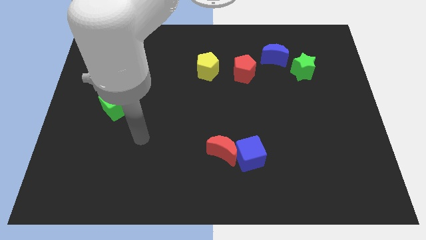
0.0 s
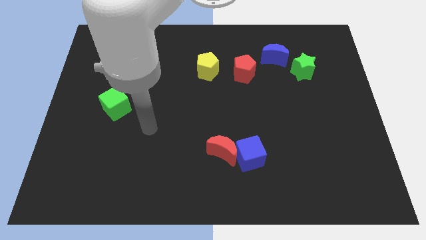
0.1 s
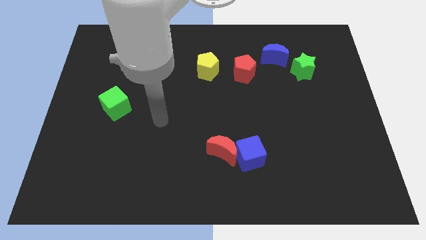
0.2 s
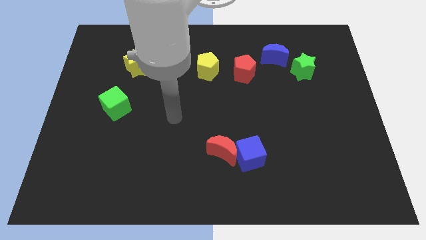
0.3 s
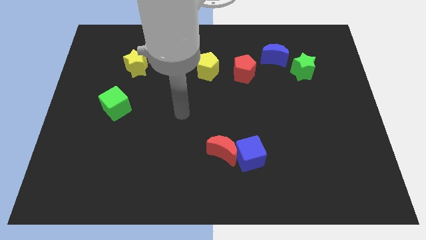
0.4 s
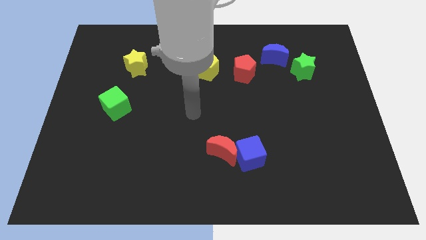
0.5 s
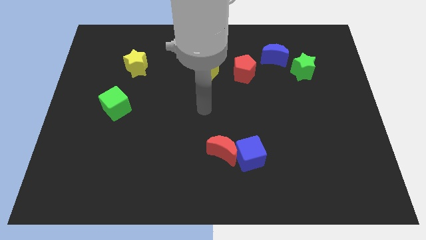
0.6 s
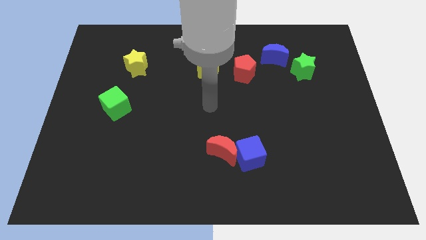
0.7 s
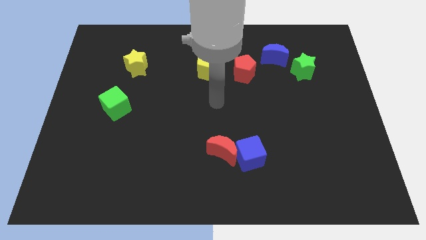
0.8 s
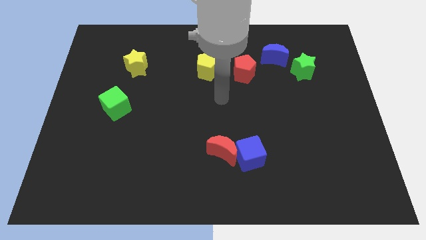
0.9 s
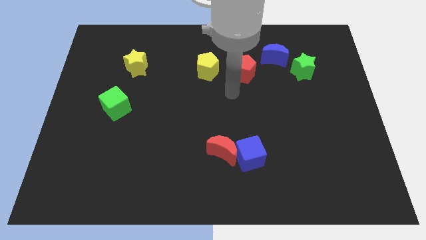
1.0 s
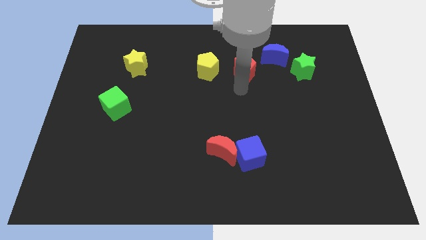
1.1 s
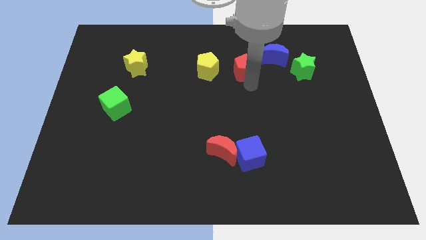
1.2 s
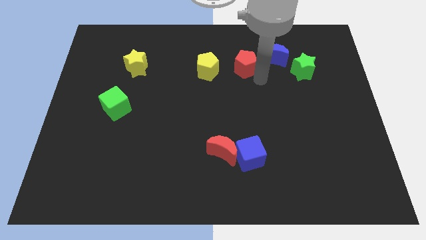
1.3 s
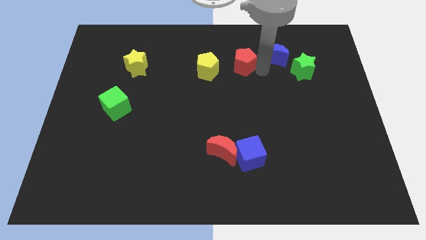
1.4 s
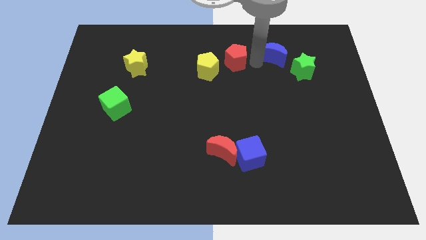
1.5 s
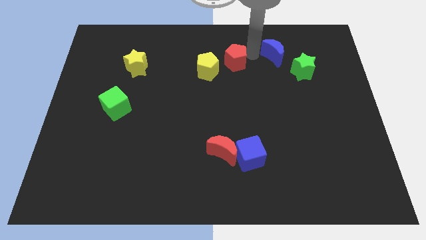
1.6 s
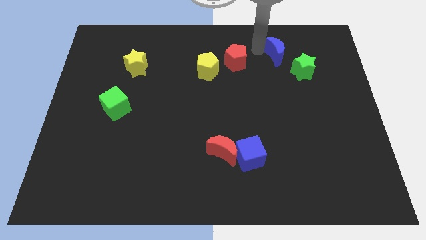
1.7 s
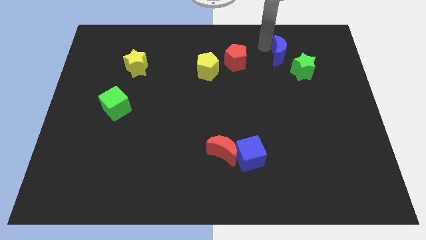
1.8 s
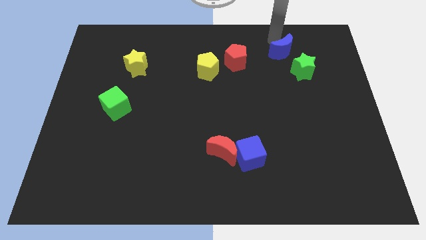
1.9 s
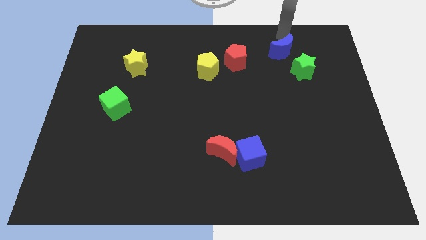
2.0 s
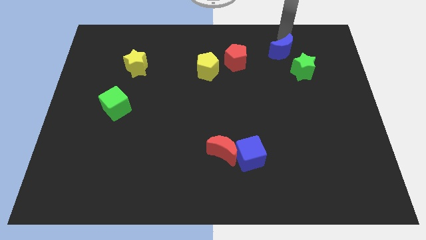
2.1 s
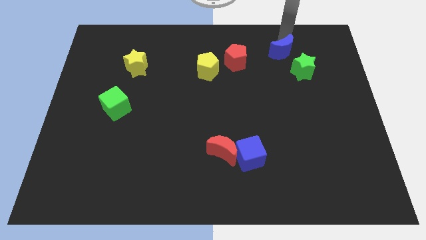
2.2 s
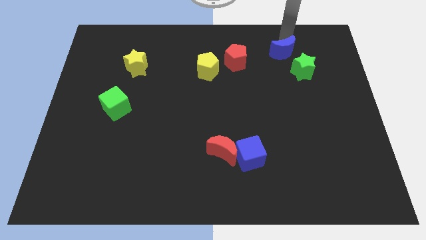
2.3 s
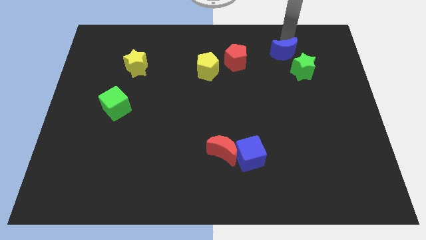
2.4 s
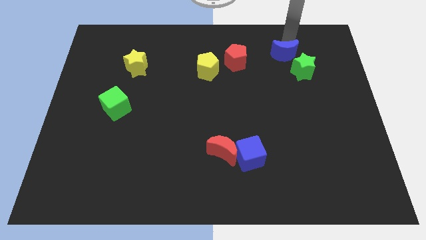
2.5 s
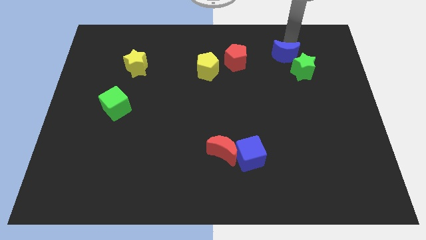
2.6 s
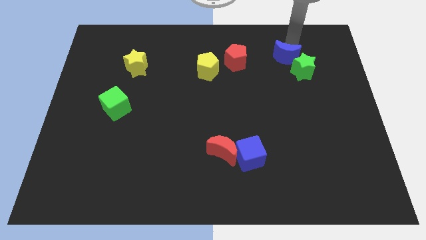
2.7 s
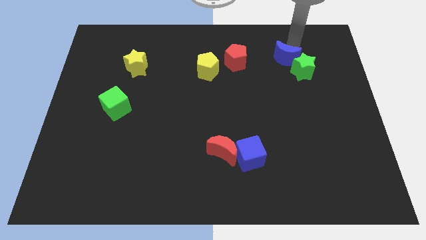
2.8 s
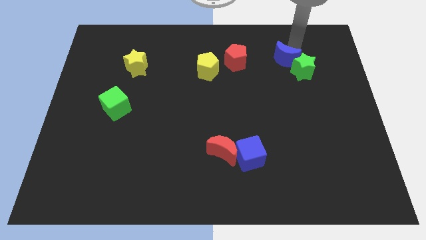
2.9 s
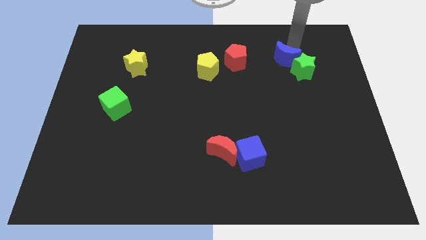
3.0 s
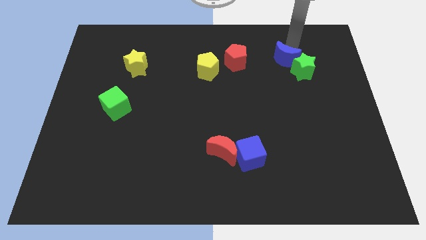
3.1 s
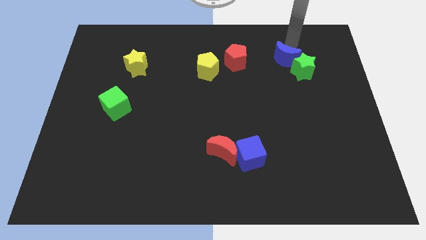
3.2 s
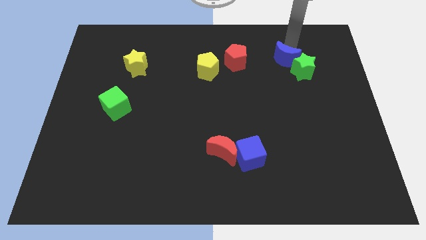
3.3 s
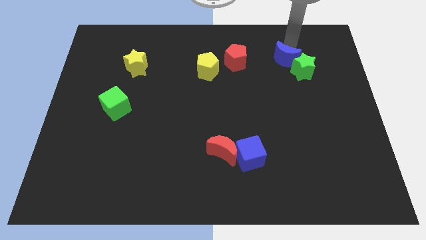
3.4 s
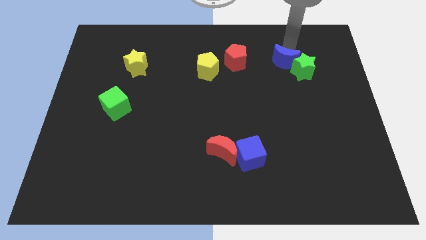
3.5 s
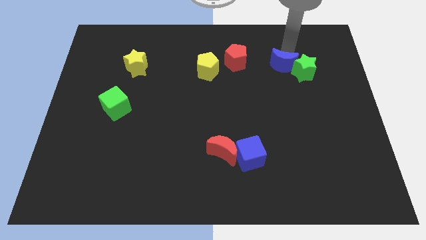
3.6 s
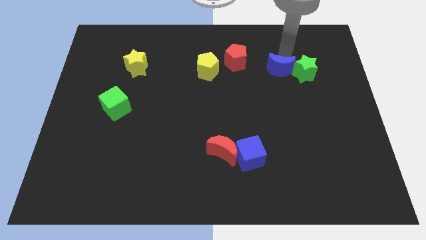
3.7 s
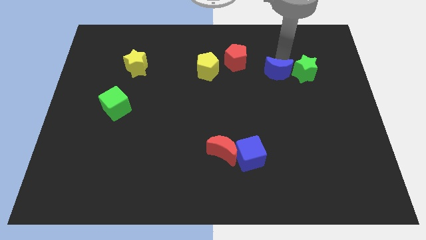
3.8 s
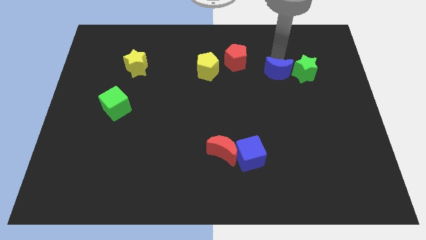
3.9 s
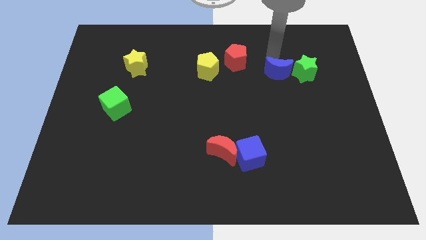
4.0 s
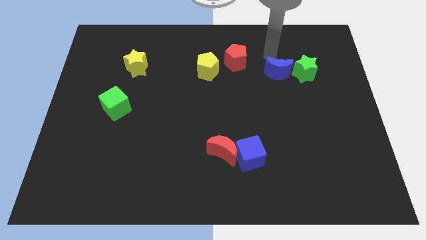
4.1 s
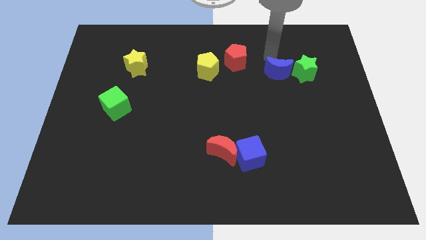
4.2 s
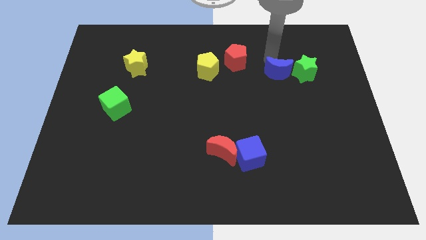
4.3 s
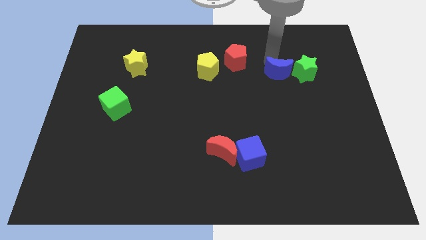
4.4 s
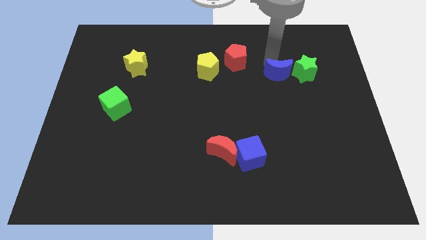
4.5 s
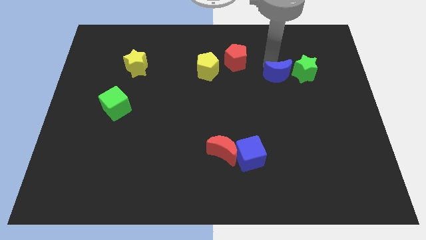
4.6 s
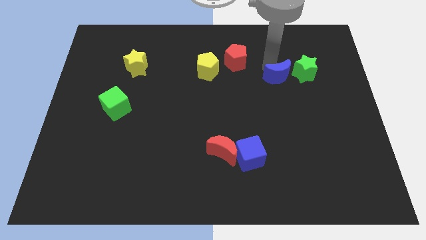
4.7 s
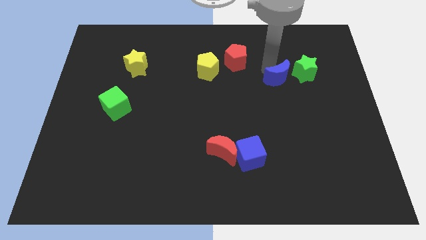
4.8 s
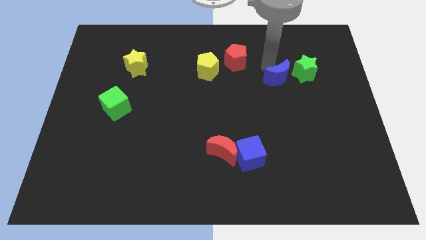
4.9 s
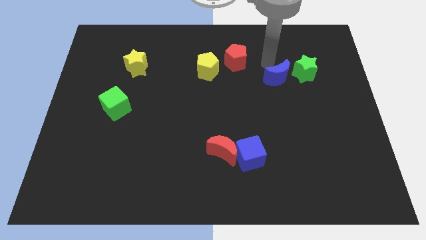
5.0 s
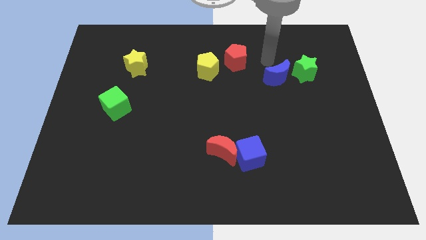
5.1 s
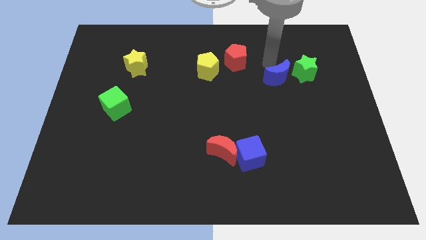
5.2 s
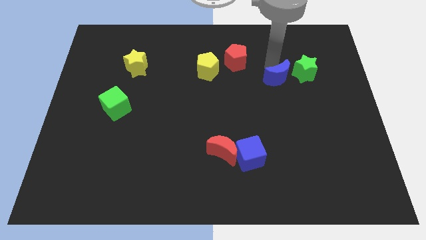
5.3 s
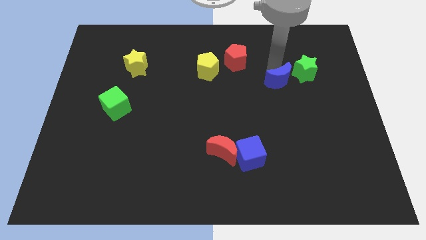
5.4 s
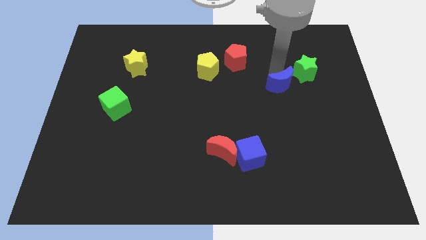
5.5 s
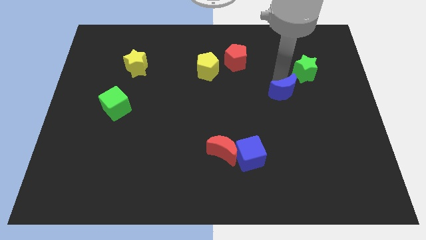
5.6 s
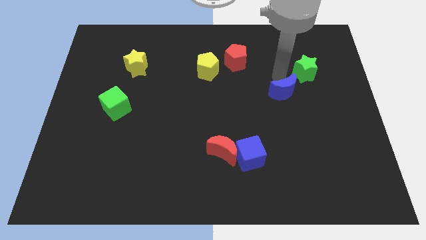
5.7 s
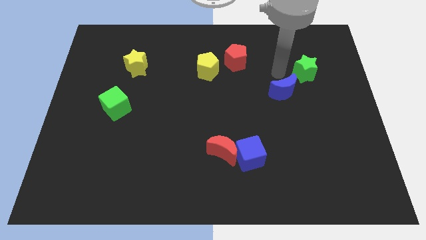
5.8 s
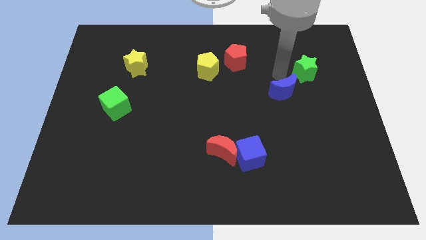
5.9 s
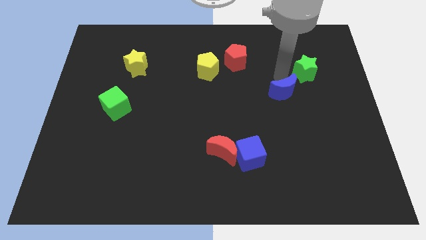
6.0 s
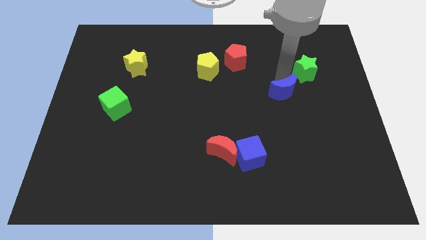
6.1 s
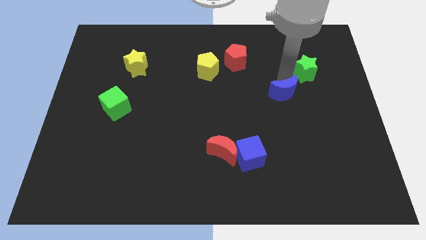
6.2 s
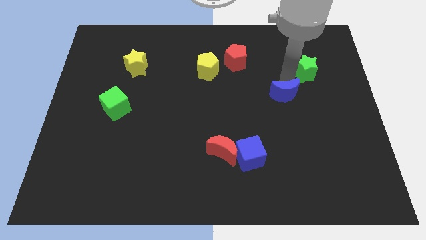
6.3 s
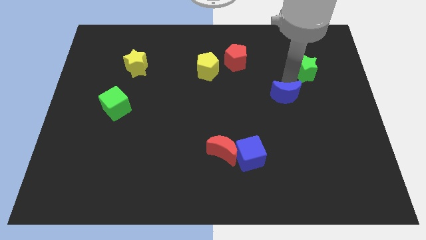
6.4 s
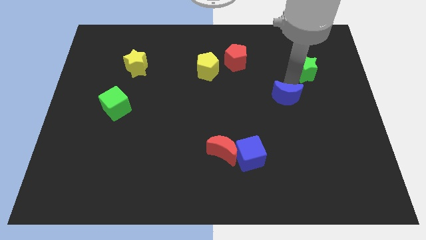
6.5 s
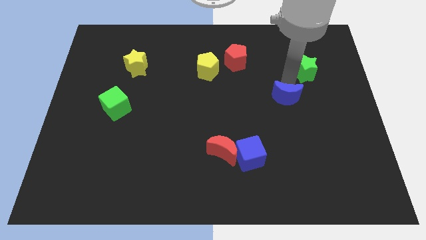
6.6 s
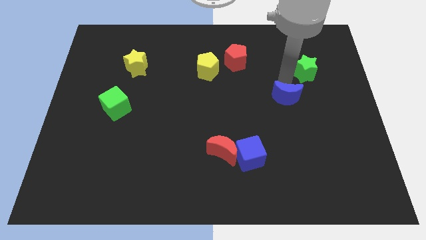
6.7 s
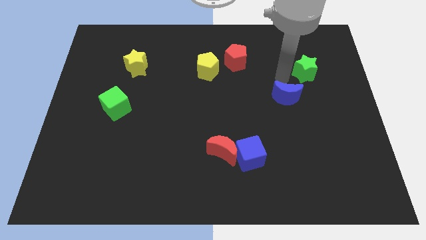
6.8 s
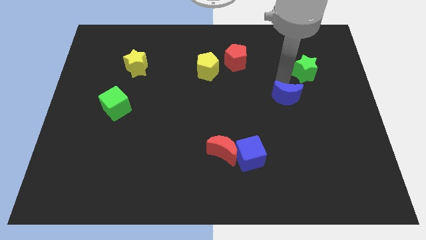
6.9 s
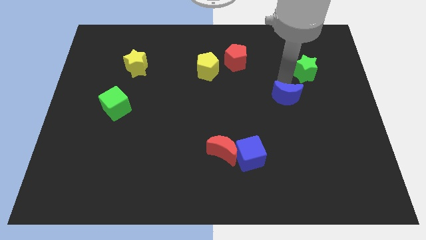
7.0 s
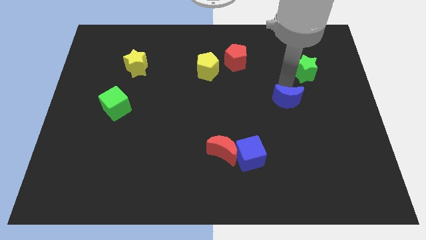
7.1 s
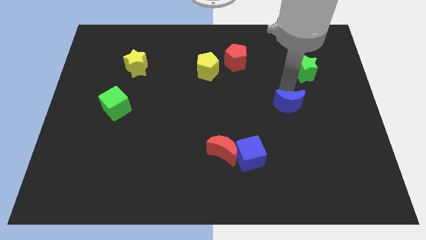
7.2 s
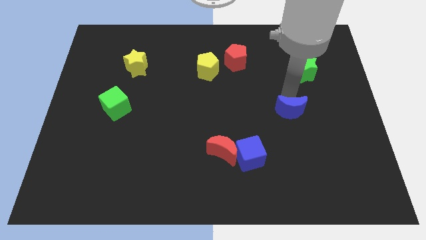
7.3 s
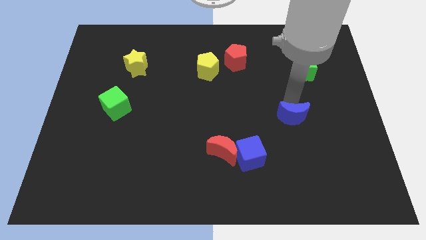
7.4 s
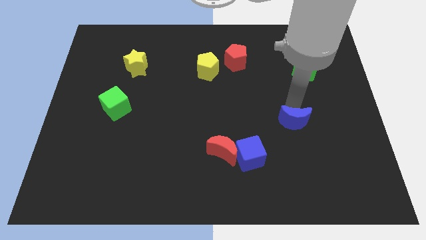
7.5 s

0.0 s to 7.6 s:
slide the blue moon down

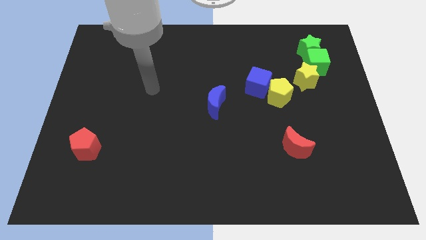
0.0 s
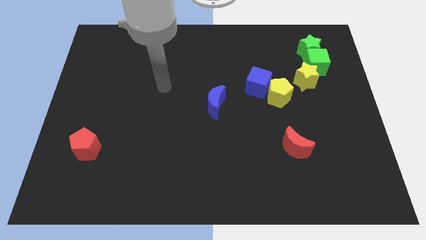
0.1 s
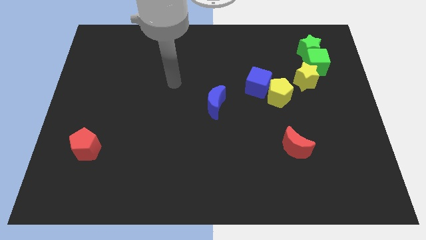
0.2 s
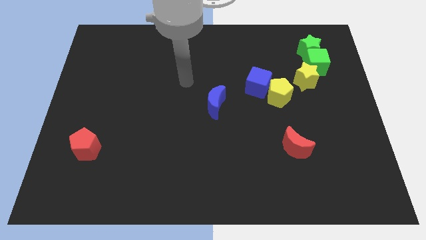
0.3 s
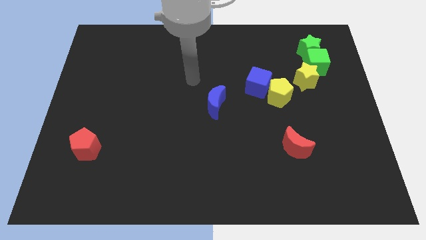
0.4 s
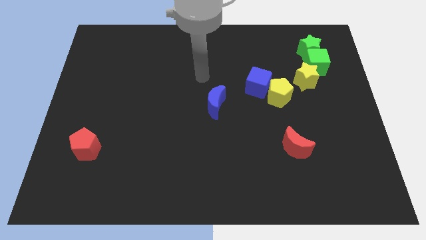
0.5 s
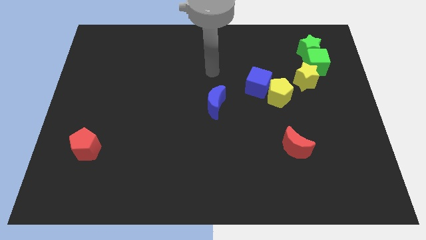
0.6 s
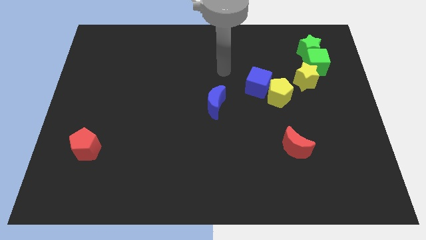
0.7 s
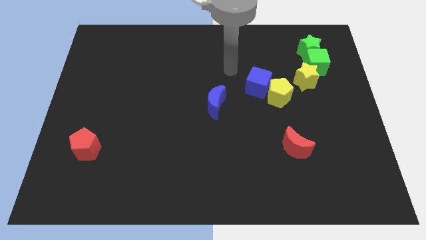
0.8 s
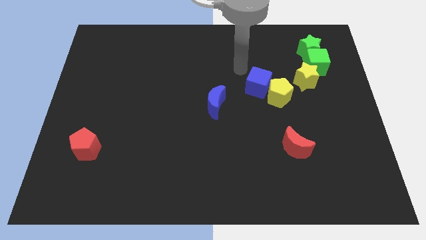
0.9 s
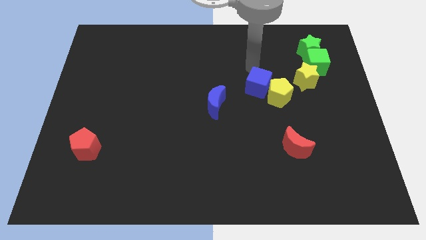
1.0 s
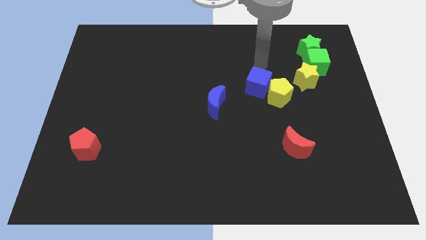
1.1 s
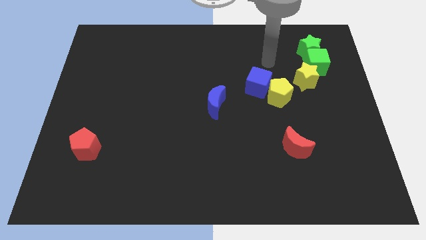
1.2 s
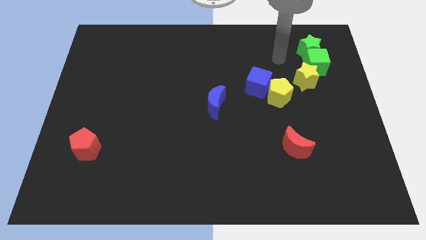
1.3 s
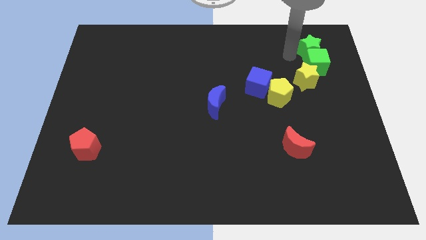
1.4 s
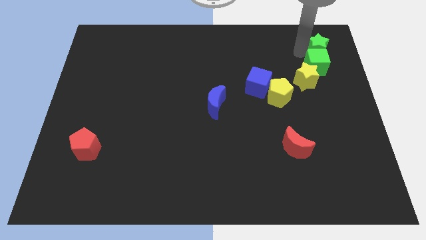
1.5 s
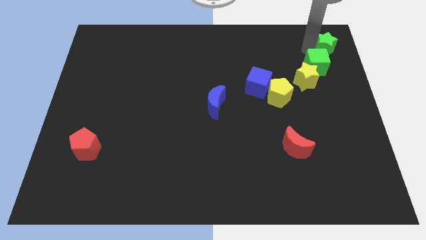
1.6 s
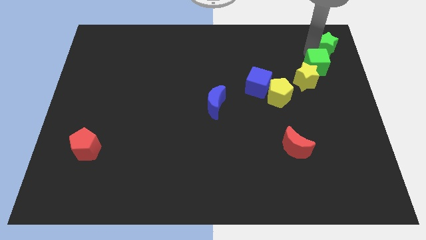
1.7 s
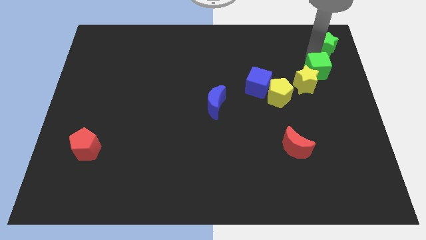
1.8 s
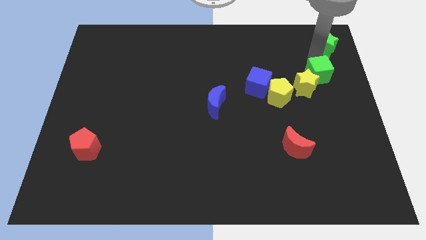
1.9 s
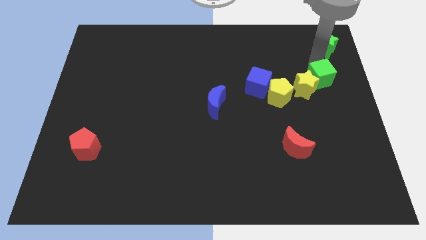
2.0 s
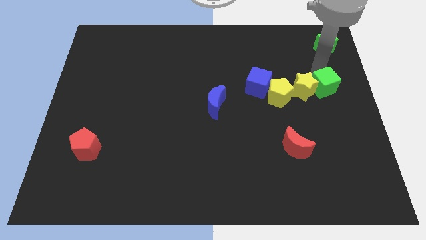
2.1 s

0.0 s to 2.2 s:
move the green cube a bit down
